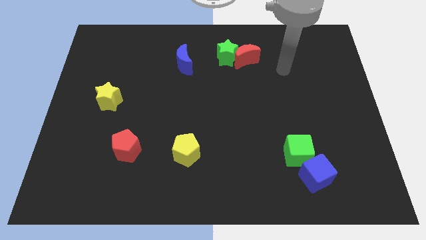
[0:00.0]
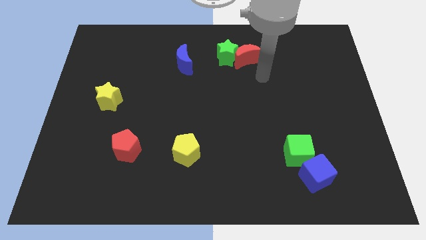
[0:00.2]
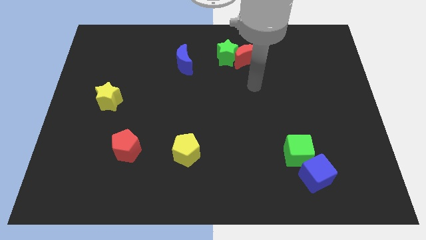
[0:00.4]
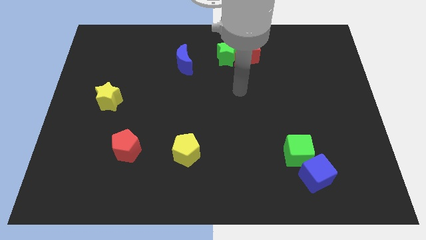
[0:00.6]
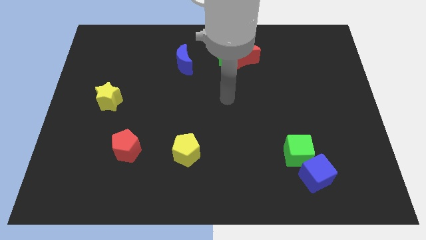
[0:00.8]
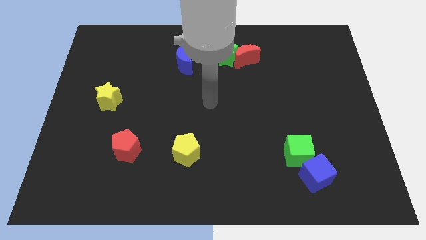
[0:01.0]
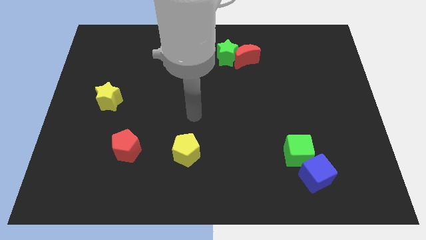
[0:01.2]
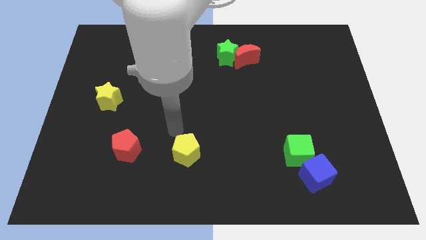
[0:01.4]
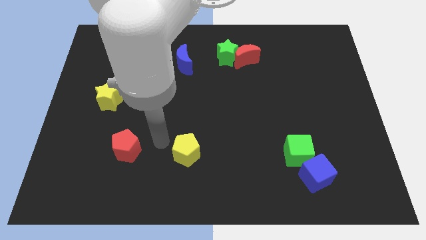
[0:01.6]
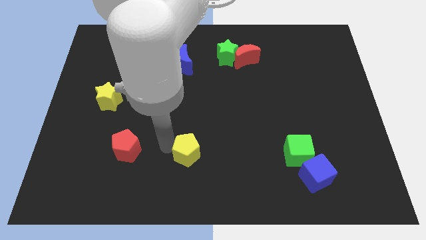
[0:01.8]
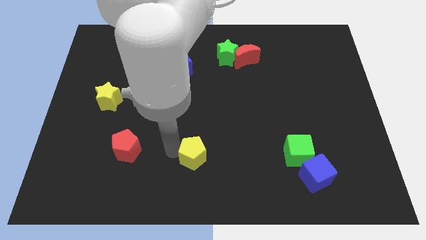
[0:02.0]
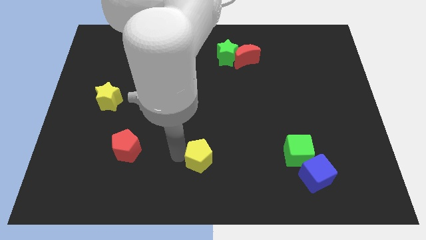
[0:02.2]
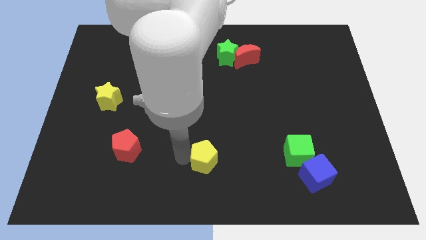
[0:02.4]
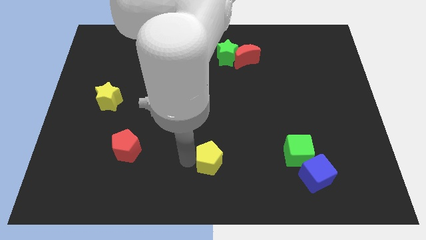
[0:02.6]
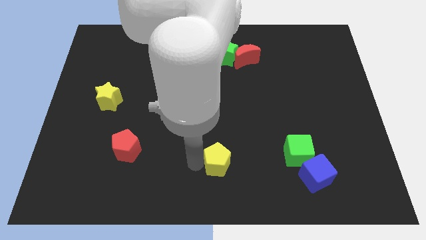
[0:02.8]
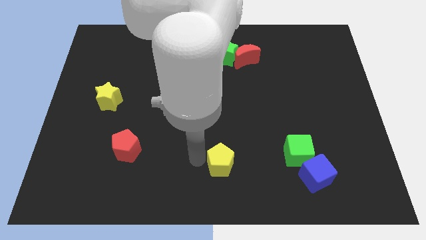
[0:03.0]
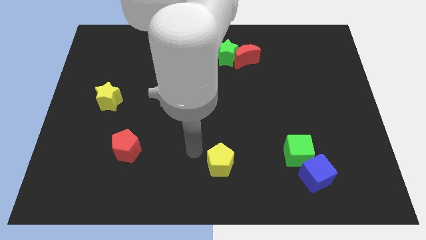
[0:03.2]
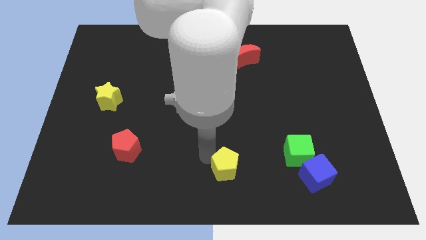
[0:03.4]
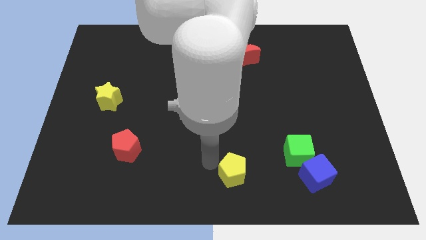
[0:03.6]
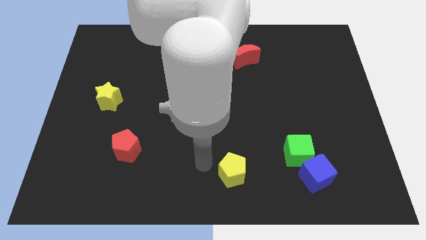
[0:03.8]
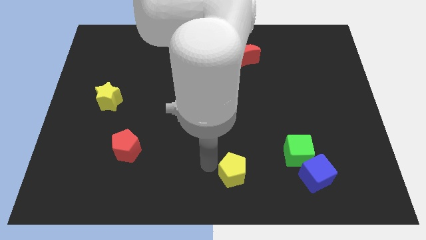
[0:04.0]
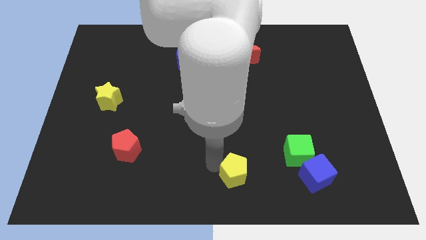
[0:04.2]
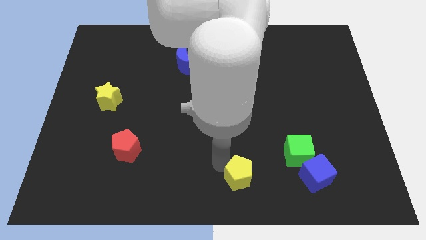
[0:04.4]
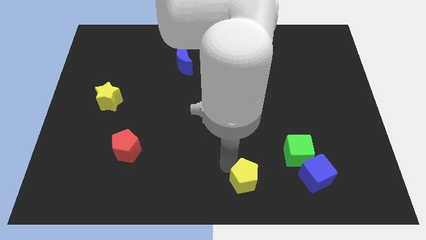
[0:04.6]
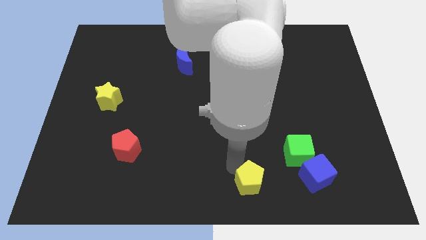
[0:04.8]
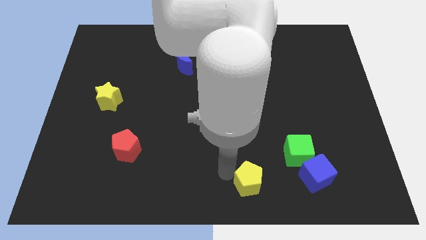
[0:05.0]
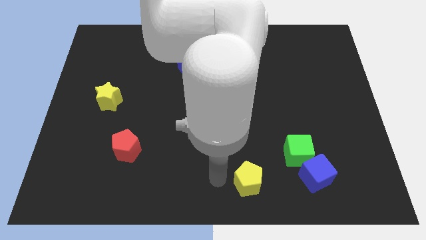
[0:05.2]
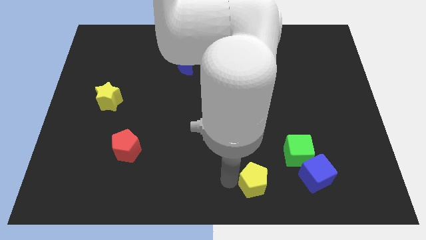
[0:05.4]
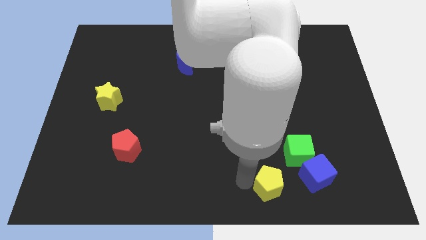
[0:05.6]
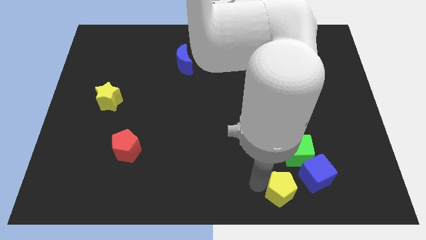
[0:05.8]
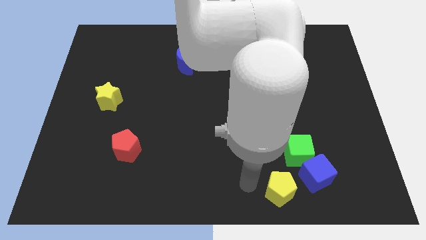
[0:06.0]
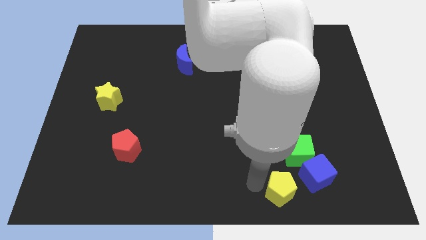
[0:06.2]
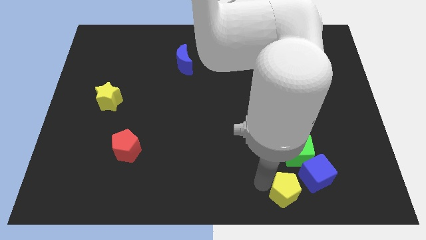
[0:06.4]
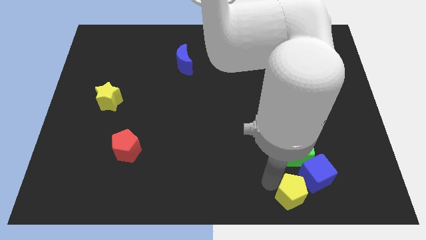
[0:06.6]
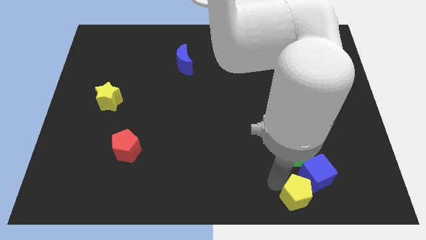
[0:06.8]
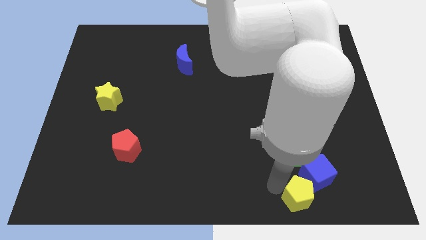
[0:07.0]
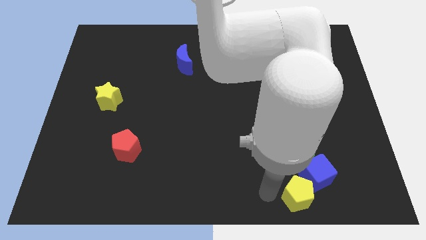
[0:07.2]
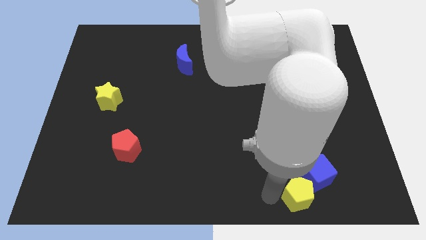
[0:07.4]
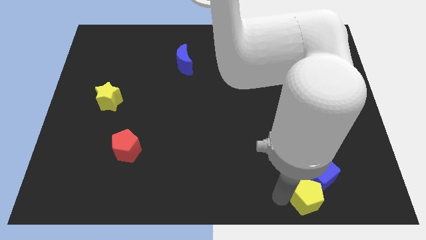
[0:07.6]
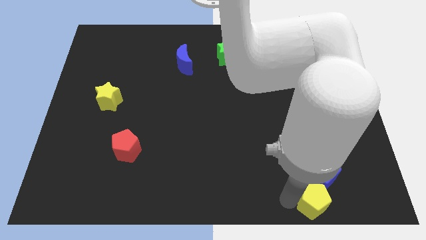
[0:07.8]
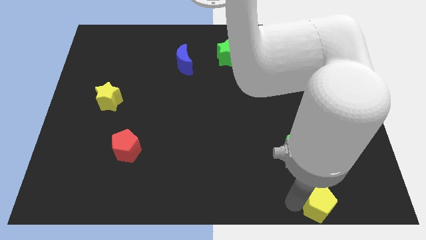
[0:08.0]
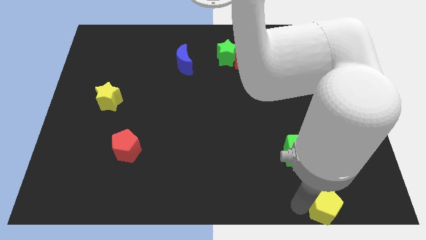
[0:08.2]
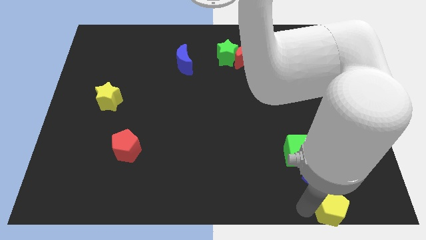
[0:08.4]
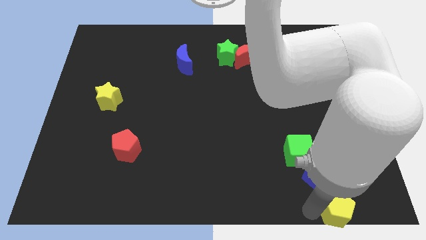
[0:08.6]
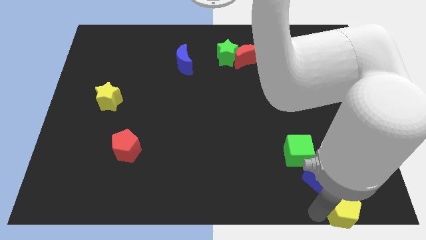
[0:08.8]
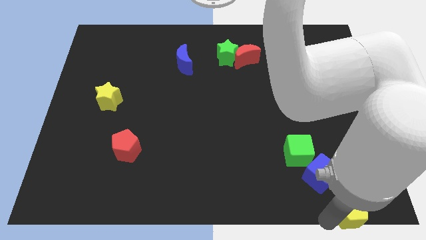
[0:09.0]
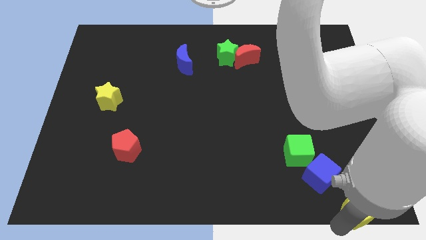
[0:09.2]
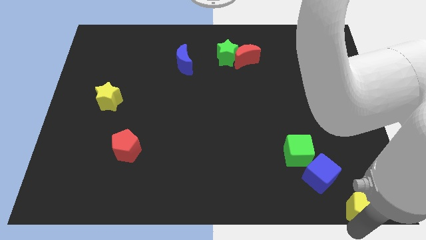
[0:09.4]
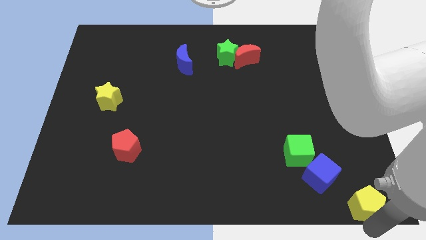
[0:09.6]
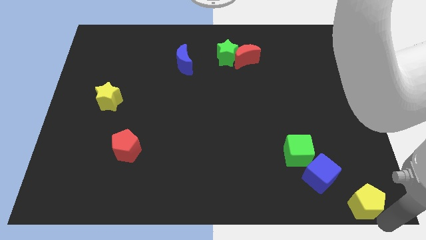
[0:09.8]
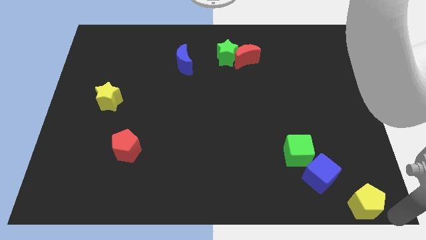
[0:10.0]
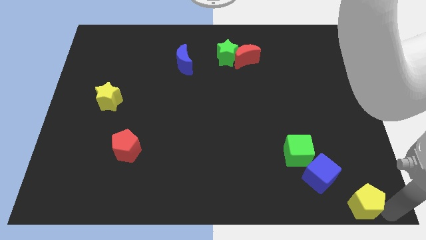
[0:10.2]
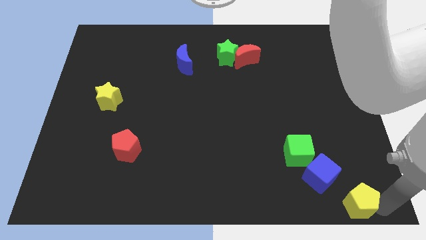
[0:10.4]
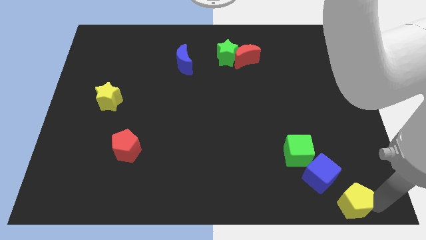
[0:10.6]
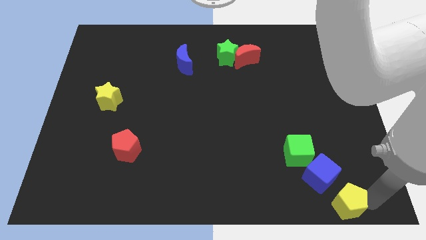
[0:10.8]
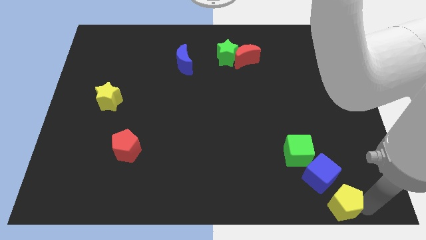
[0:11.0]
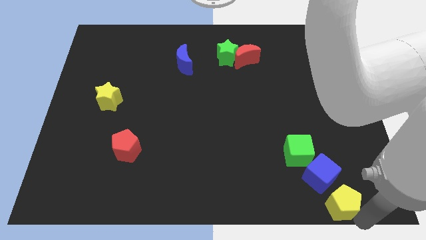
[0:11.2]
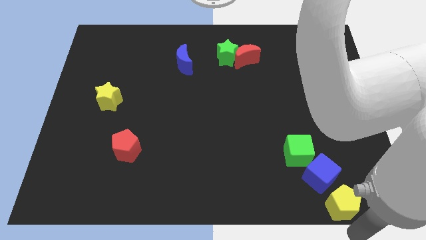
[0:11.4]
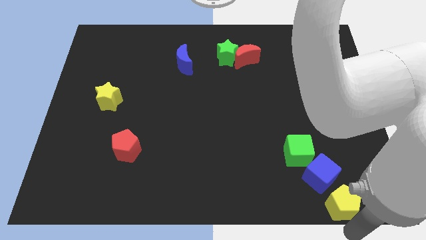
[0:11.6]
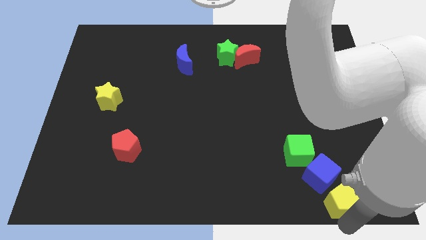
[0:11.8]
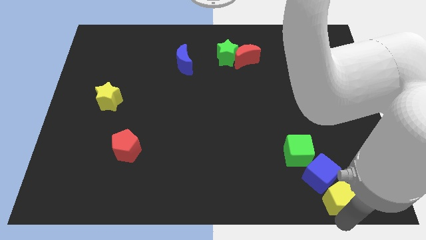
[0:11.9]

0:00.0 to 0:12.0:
move the yellow pentagon to the bottom right side of the green cube

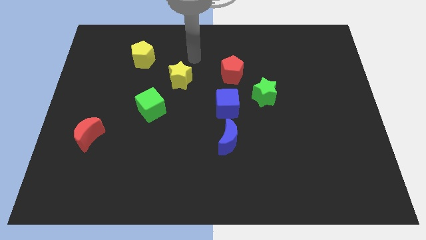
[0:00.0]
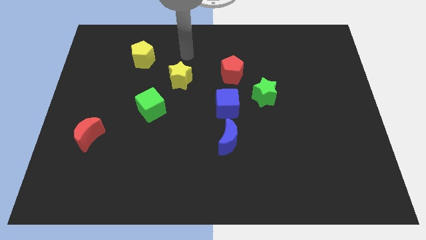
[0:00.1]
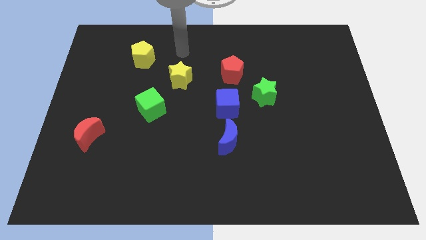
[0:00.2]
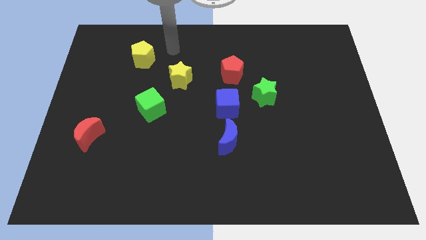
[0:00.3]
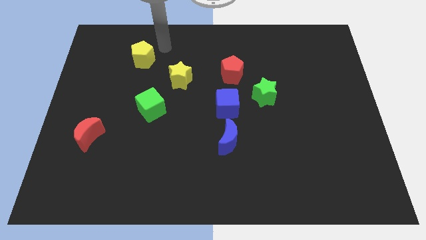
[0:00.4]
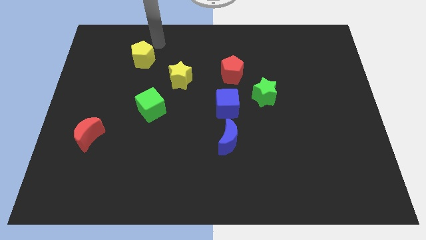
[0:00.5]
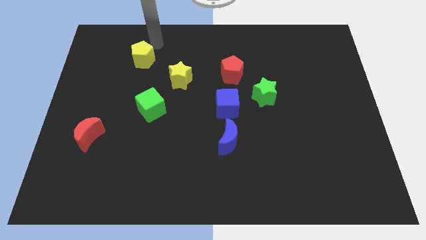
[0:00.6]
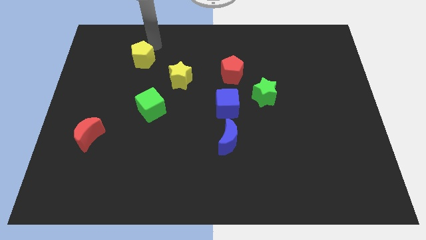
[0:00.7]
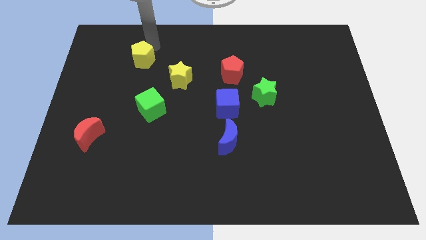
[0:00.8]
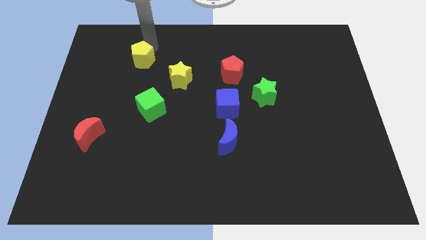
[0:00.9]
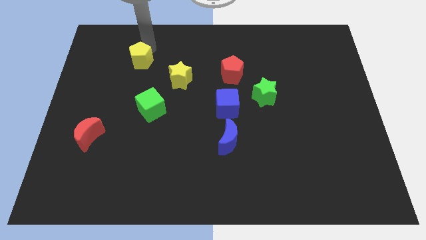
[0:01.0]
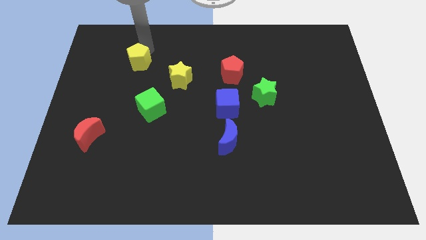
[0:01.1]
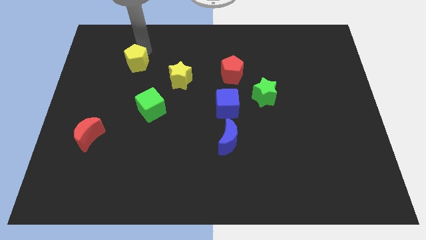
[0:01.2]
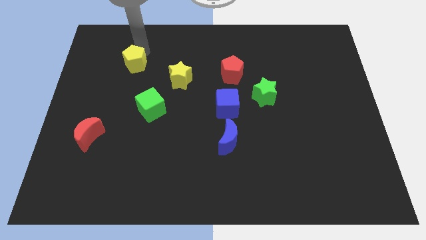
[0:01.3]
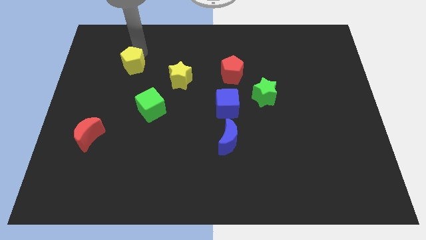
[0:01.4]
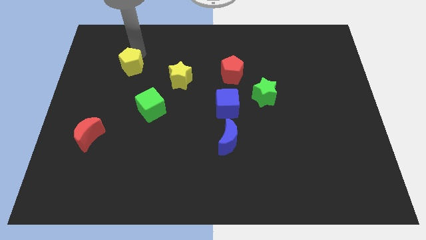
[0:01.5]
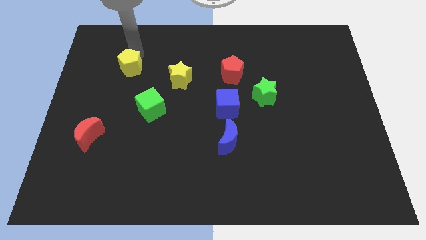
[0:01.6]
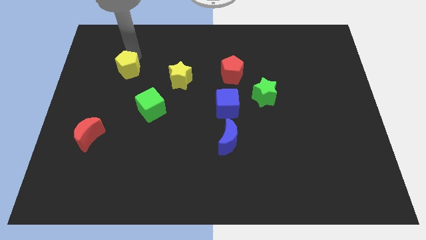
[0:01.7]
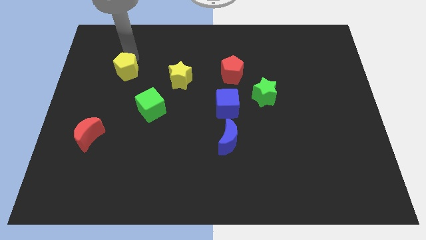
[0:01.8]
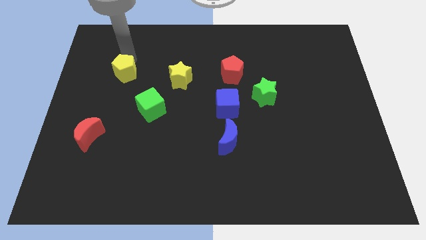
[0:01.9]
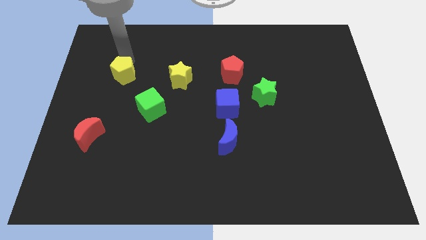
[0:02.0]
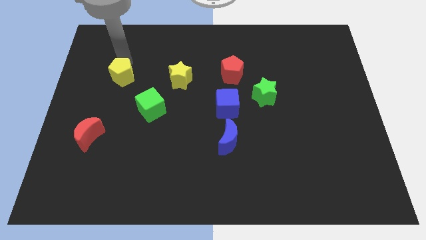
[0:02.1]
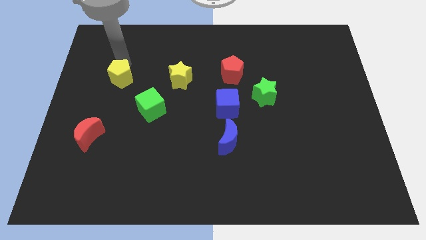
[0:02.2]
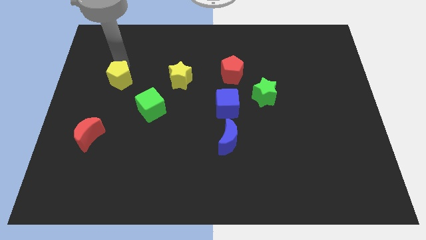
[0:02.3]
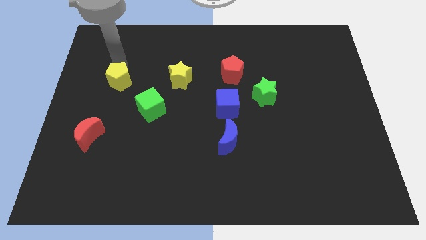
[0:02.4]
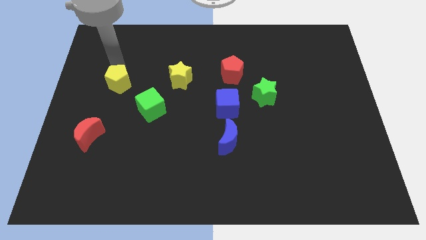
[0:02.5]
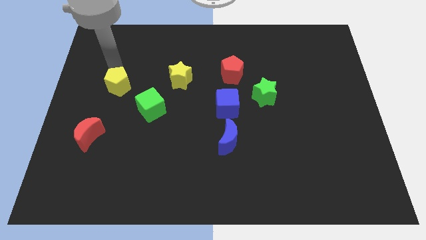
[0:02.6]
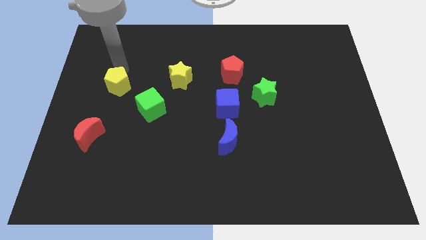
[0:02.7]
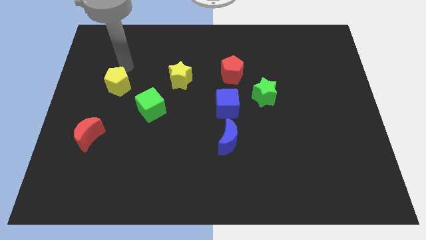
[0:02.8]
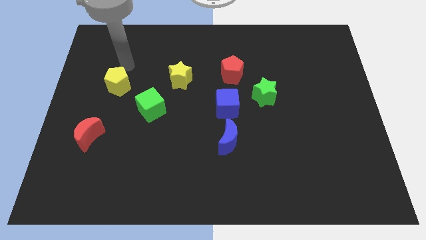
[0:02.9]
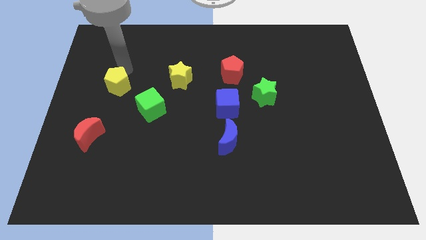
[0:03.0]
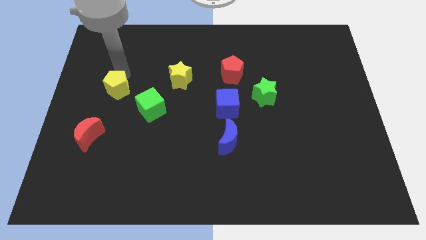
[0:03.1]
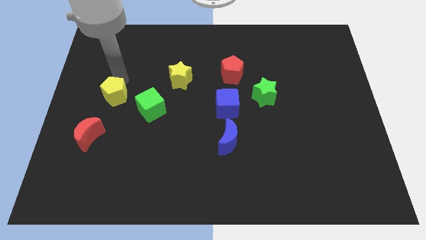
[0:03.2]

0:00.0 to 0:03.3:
move the yellow pentagon to the left side of the green cube
